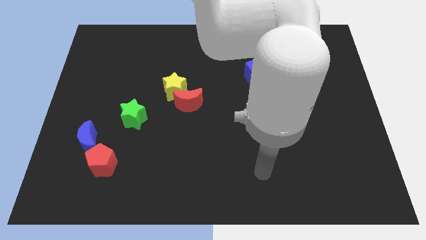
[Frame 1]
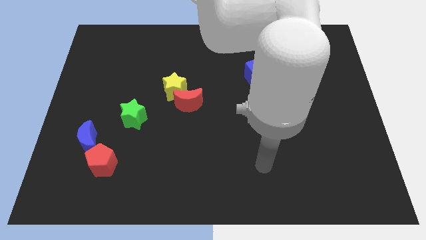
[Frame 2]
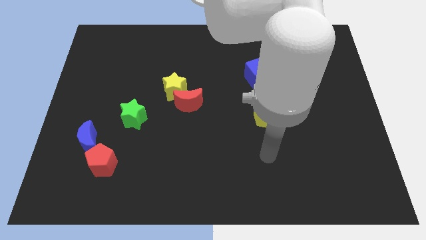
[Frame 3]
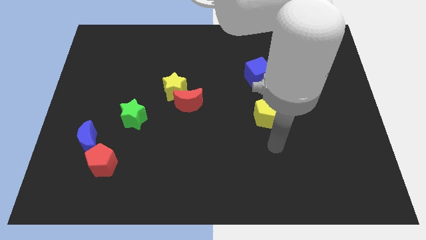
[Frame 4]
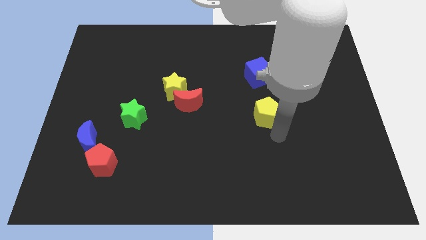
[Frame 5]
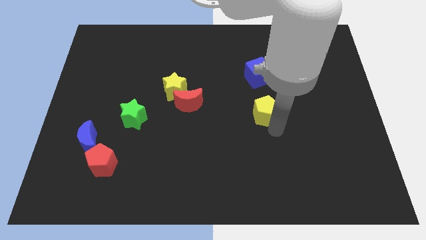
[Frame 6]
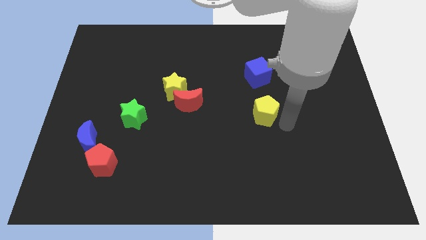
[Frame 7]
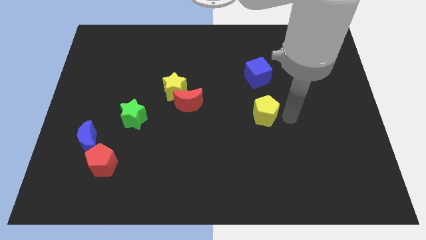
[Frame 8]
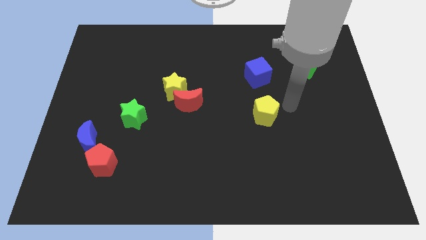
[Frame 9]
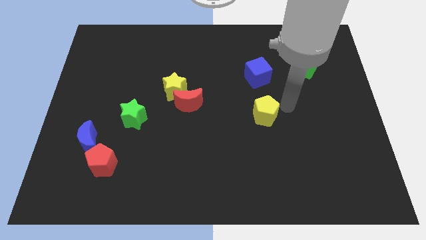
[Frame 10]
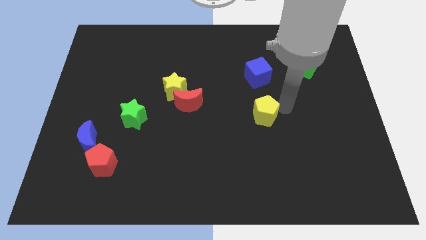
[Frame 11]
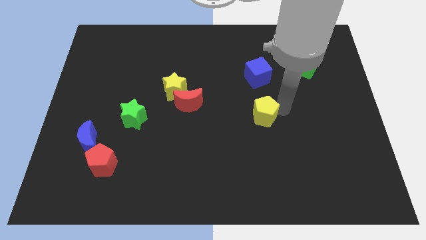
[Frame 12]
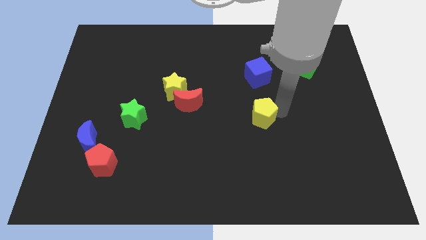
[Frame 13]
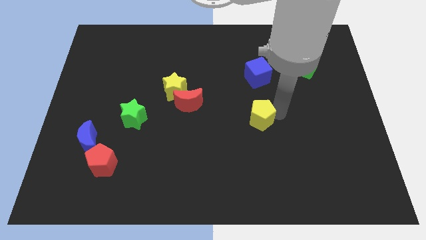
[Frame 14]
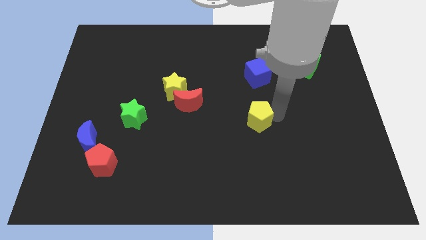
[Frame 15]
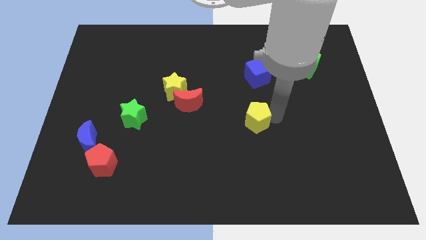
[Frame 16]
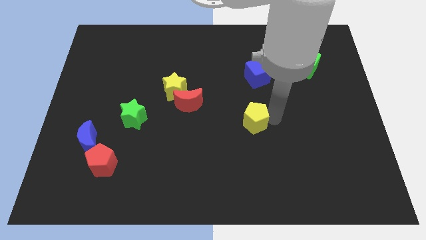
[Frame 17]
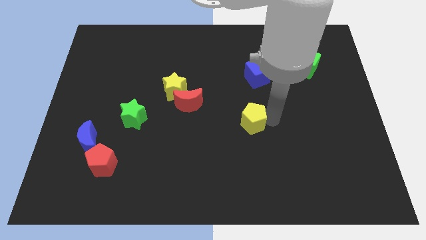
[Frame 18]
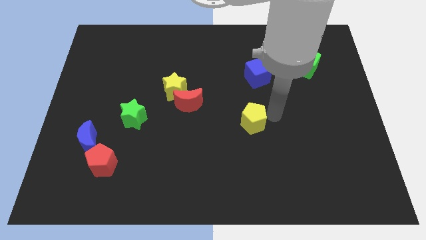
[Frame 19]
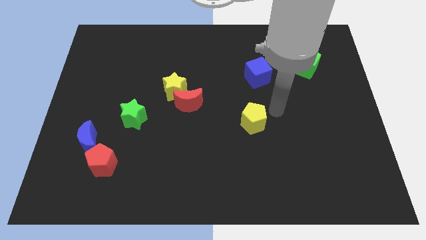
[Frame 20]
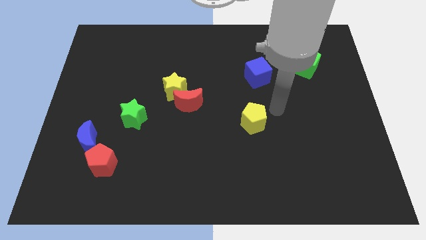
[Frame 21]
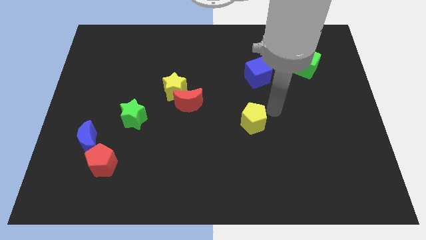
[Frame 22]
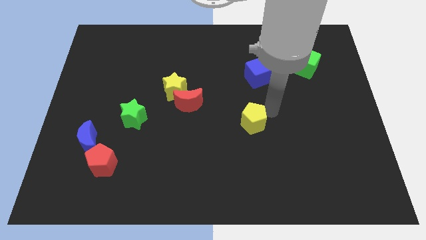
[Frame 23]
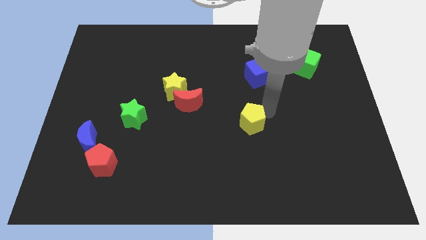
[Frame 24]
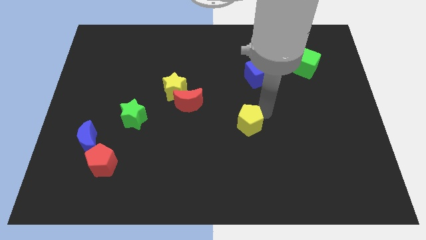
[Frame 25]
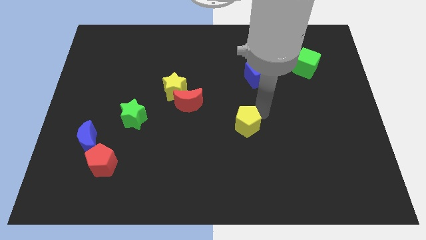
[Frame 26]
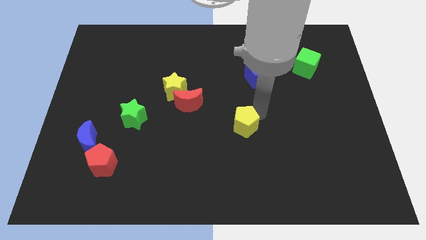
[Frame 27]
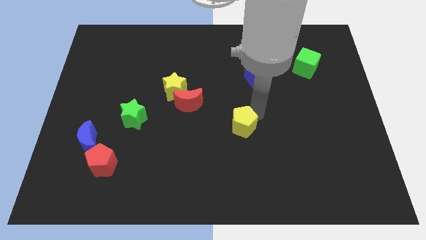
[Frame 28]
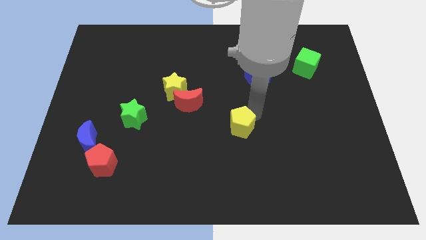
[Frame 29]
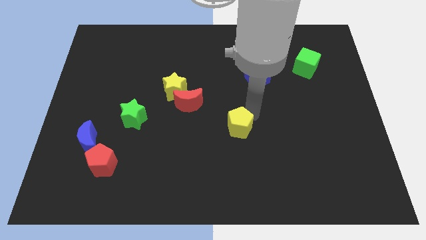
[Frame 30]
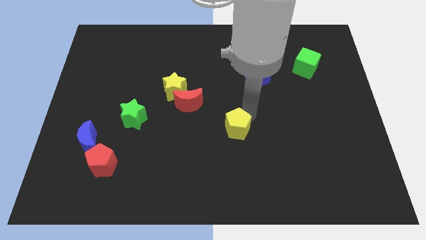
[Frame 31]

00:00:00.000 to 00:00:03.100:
slightly slide the yellow pentagon downwards and to the left diagonally

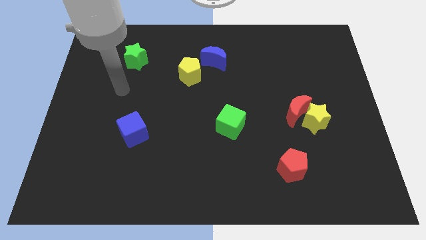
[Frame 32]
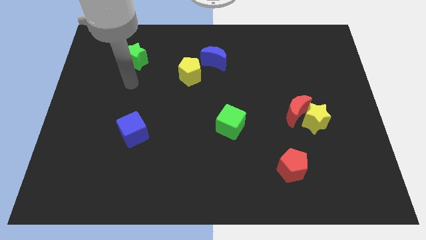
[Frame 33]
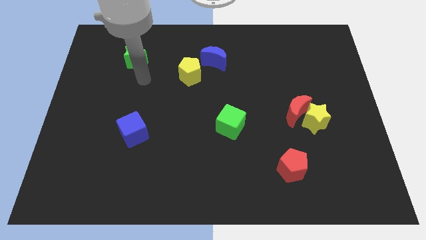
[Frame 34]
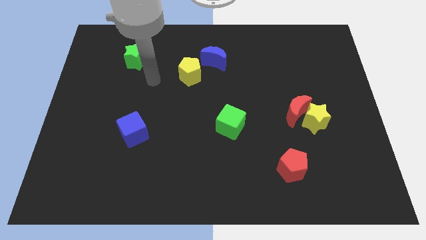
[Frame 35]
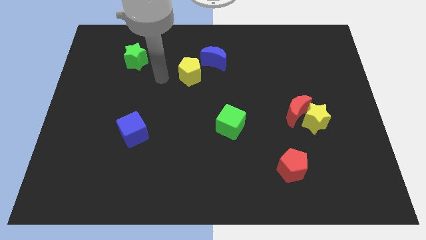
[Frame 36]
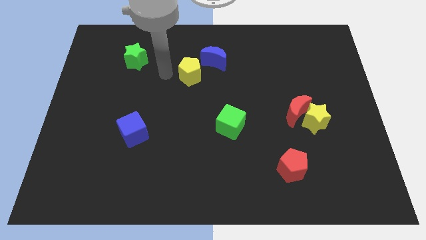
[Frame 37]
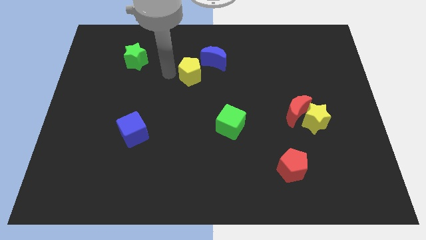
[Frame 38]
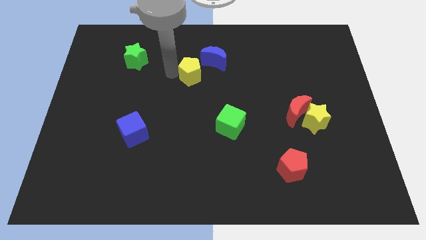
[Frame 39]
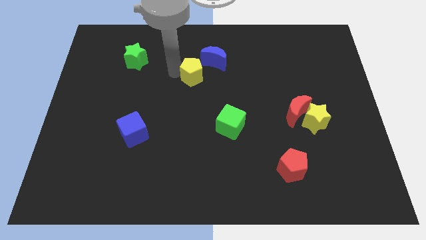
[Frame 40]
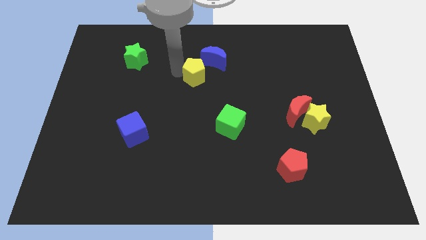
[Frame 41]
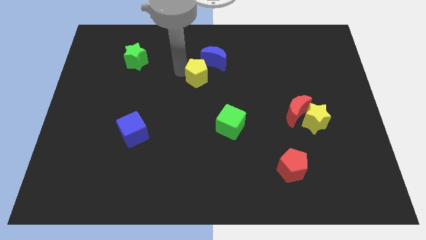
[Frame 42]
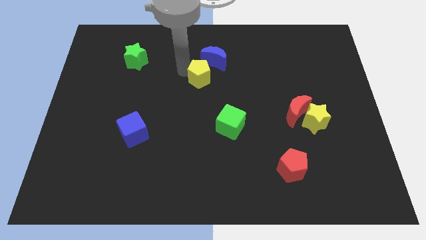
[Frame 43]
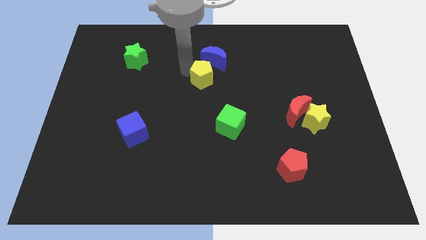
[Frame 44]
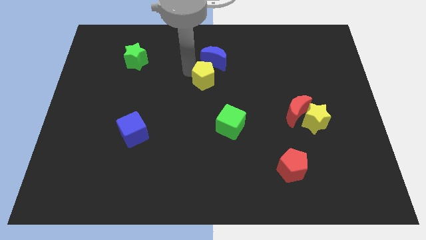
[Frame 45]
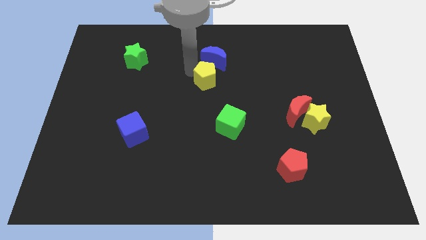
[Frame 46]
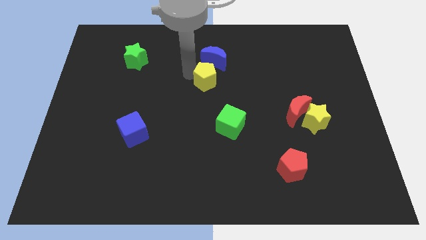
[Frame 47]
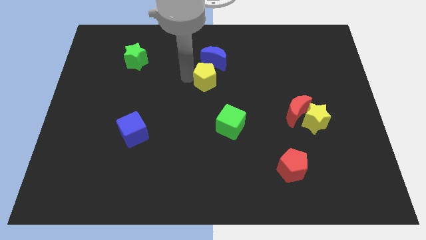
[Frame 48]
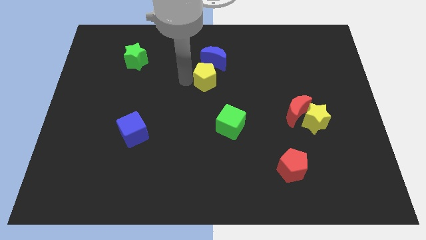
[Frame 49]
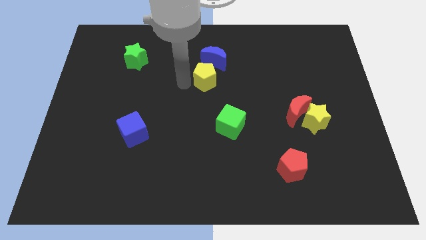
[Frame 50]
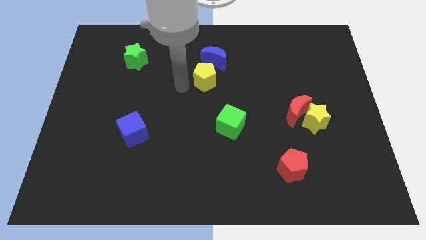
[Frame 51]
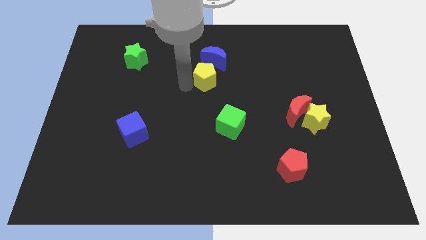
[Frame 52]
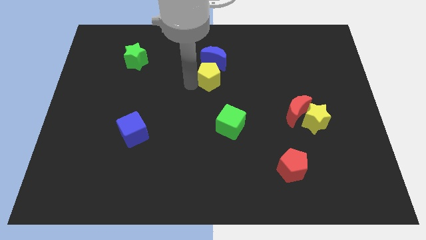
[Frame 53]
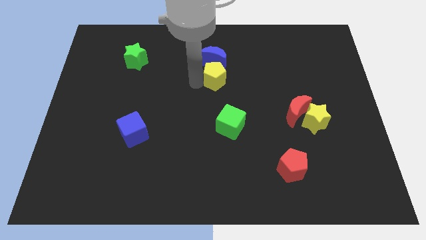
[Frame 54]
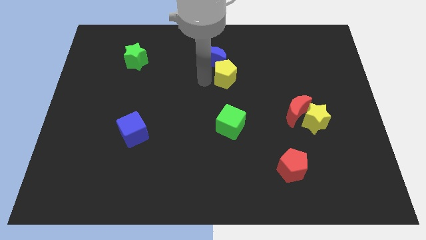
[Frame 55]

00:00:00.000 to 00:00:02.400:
push the yellow pentagon a little right

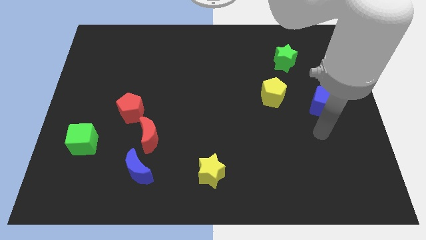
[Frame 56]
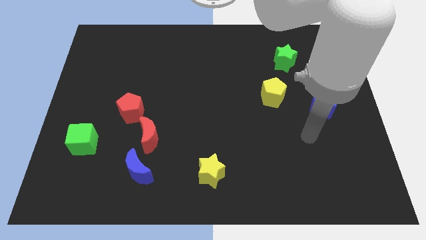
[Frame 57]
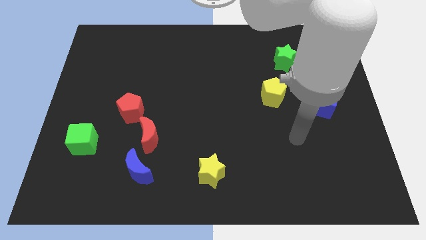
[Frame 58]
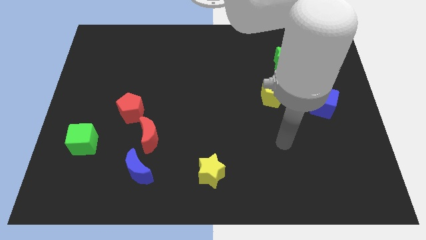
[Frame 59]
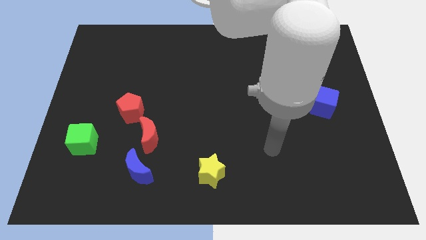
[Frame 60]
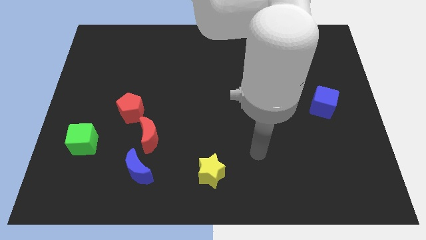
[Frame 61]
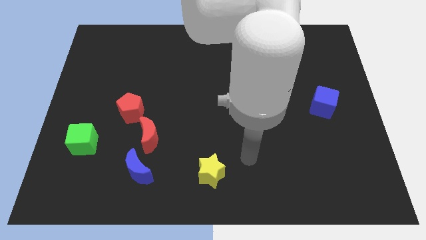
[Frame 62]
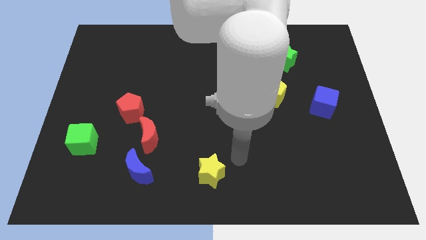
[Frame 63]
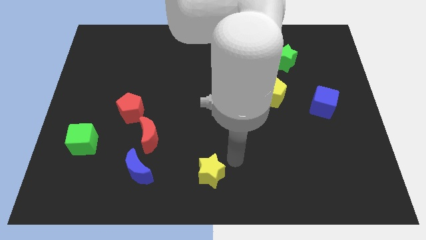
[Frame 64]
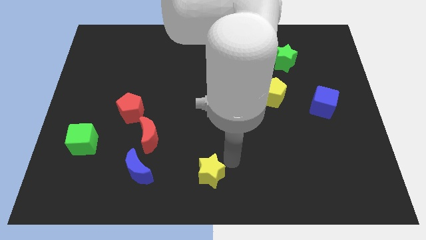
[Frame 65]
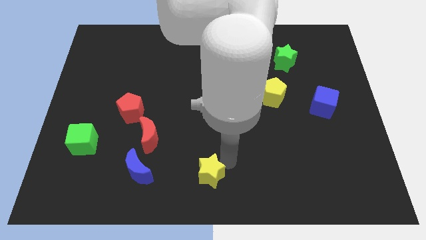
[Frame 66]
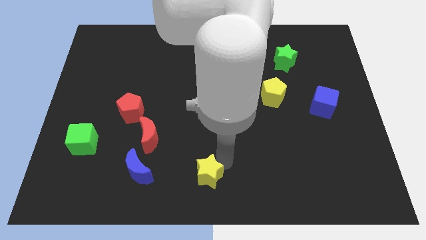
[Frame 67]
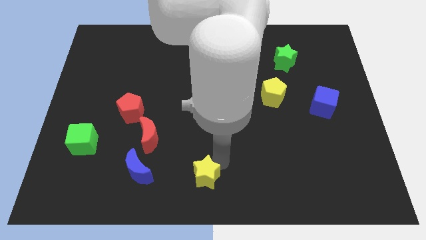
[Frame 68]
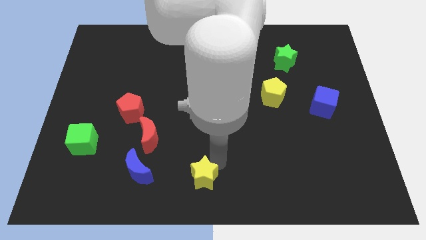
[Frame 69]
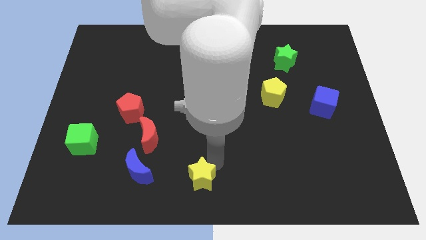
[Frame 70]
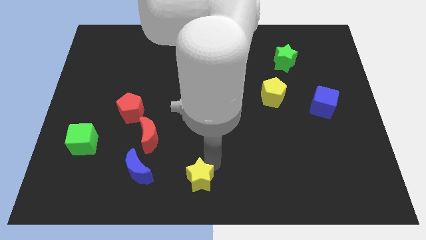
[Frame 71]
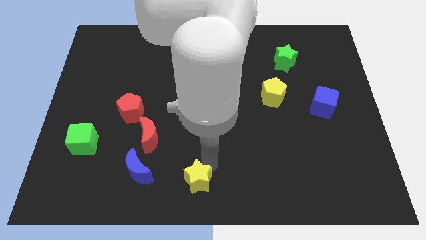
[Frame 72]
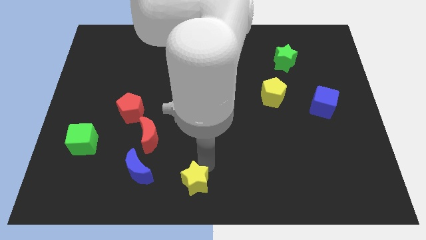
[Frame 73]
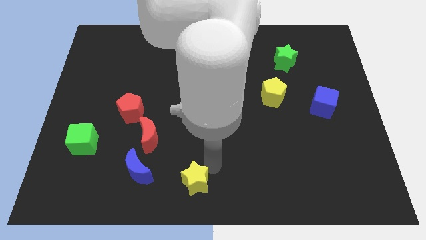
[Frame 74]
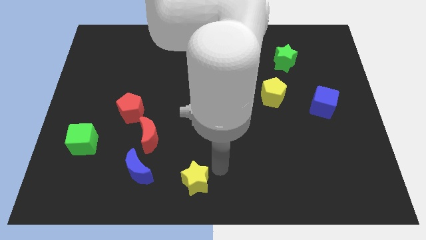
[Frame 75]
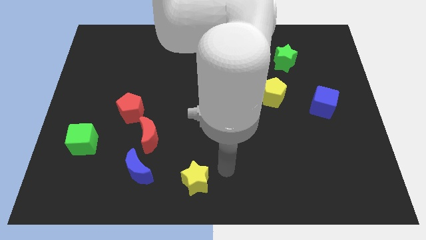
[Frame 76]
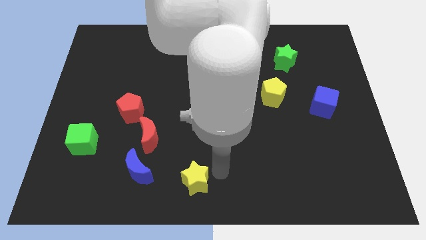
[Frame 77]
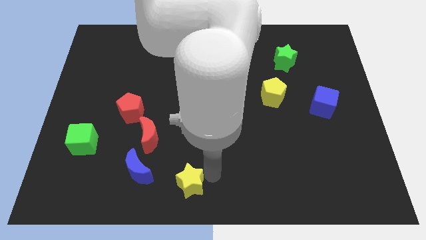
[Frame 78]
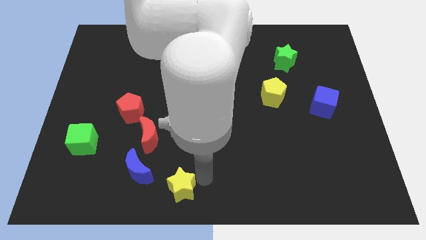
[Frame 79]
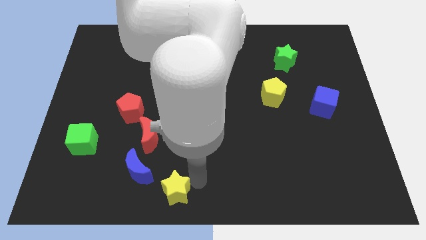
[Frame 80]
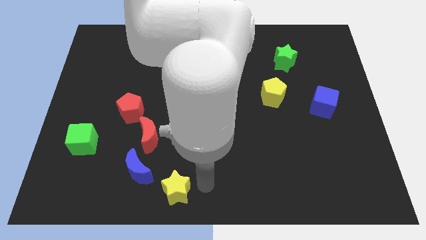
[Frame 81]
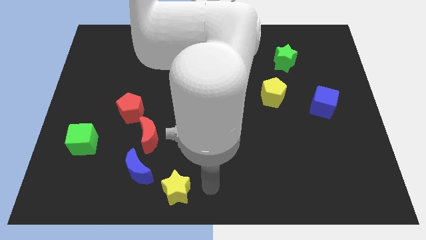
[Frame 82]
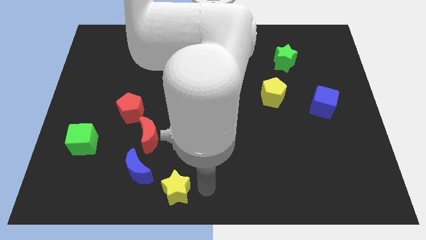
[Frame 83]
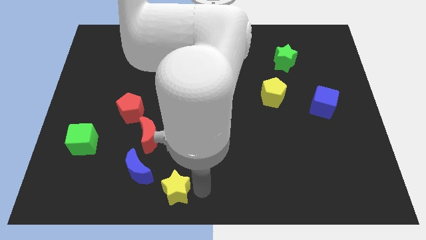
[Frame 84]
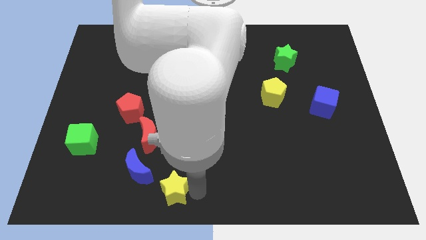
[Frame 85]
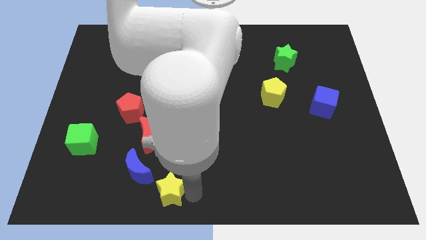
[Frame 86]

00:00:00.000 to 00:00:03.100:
move the yellow star left a little
